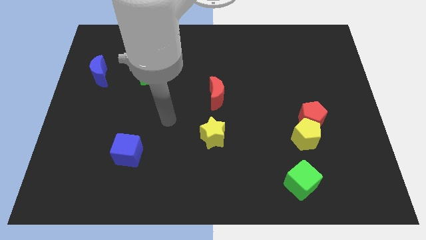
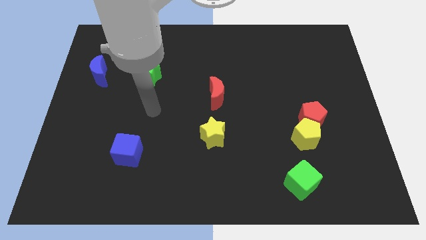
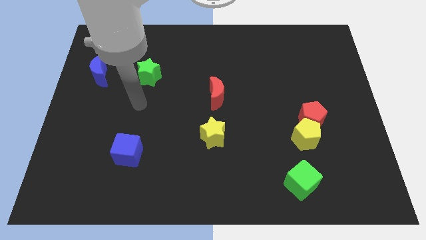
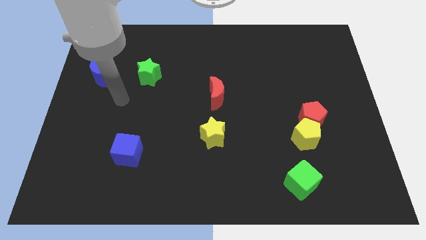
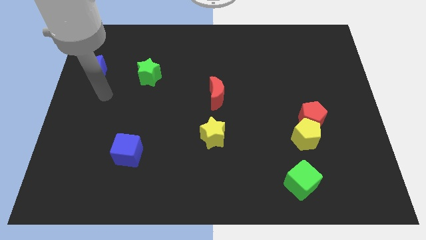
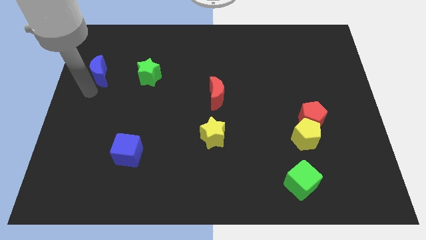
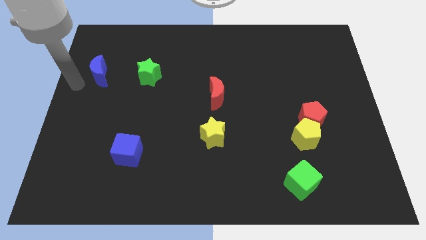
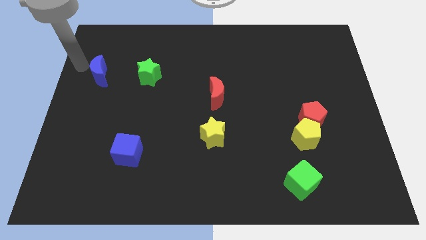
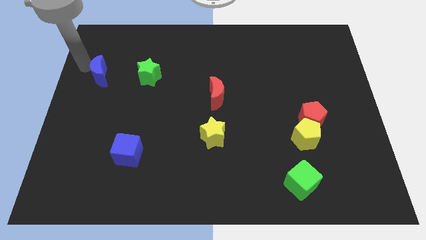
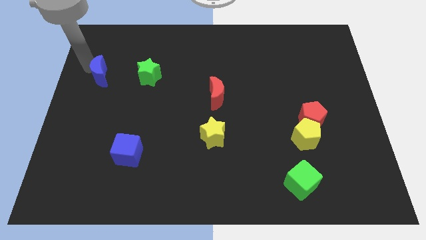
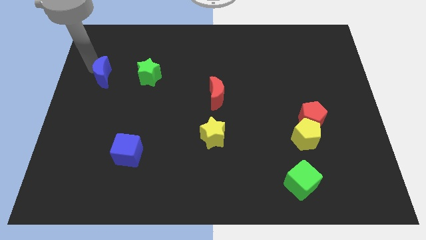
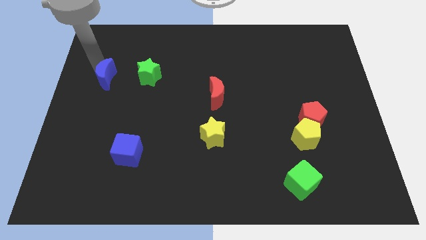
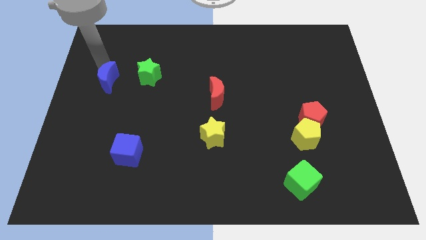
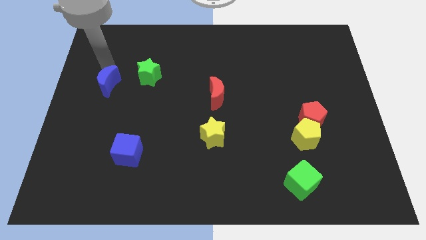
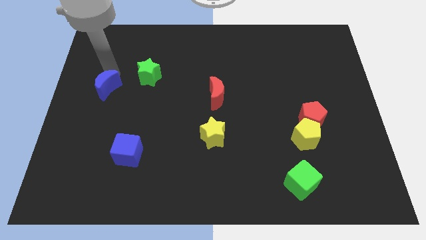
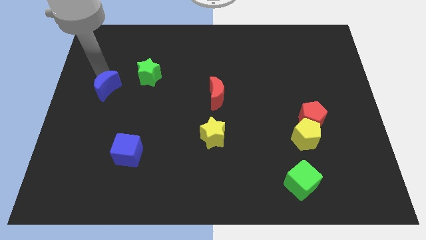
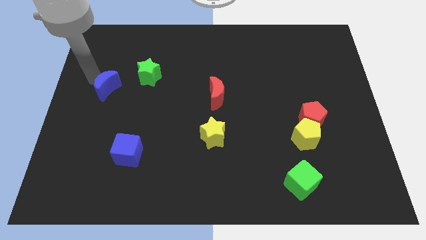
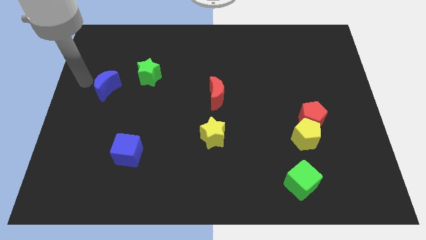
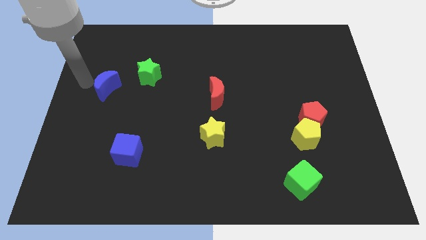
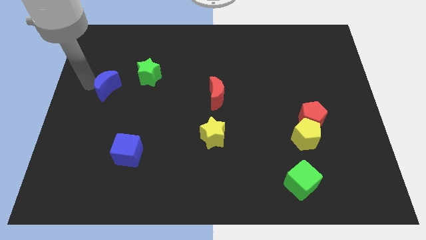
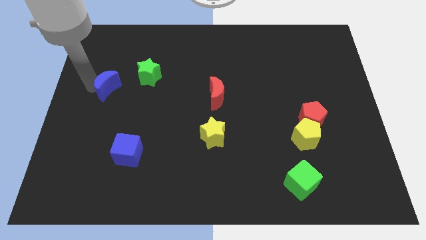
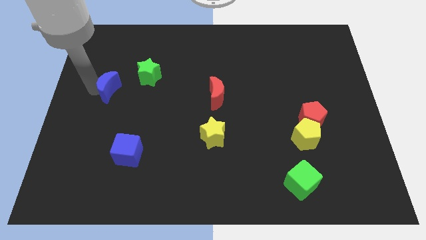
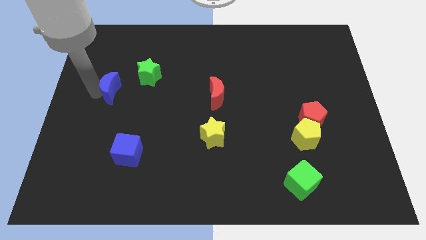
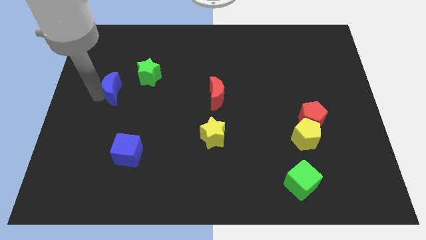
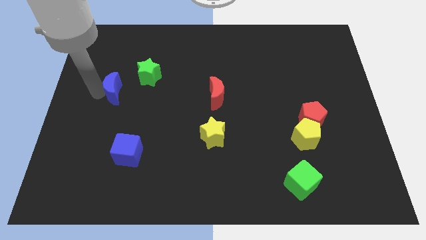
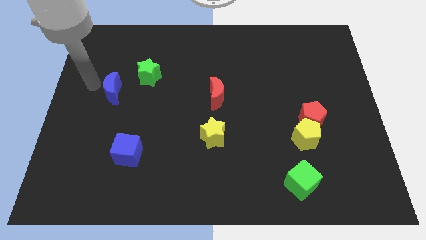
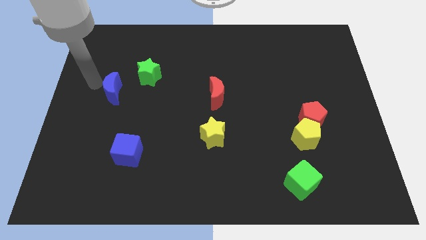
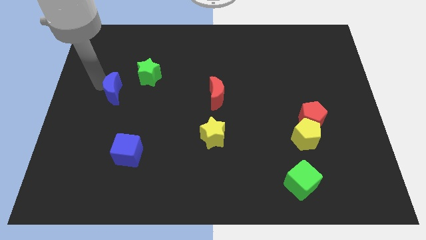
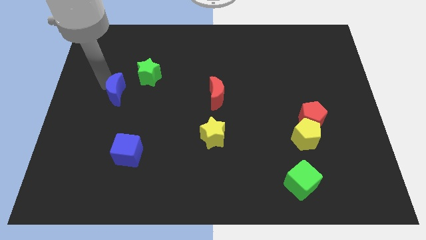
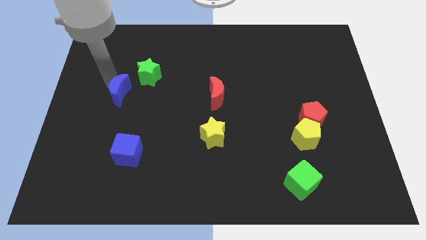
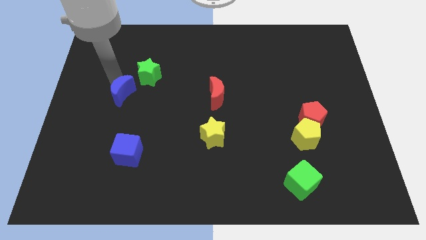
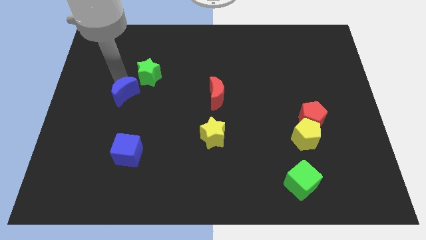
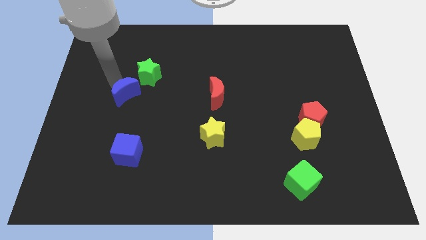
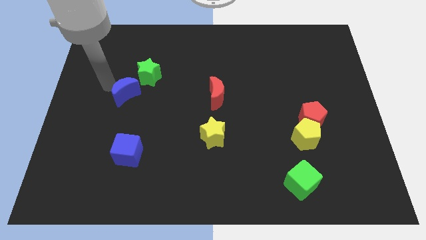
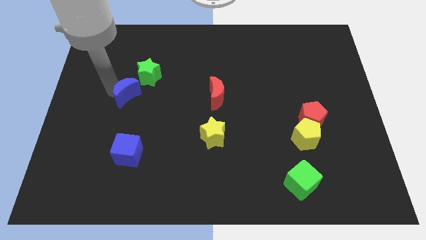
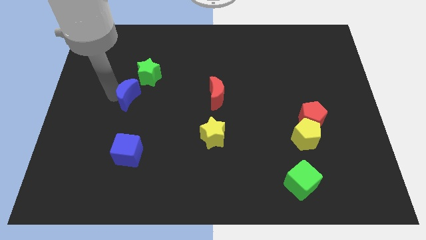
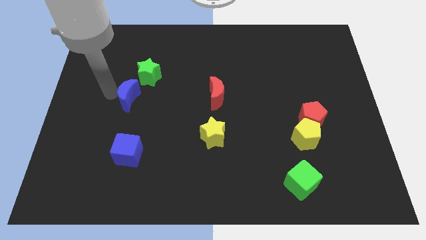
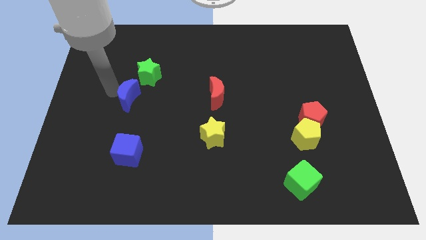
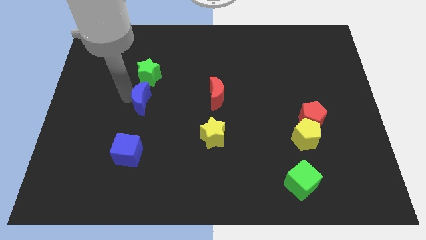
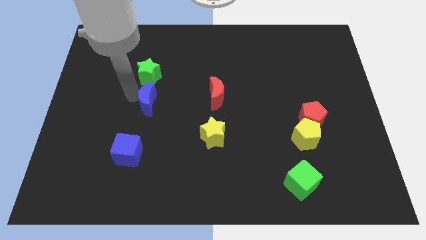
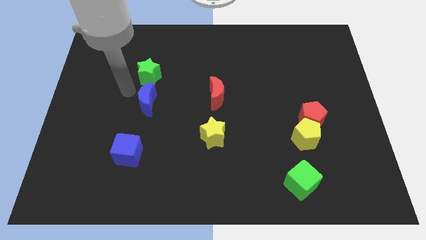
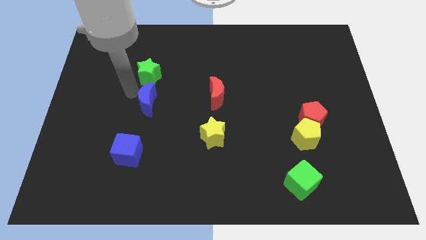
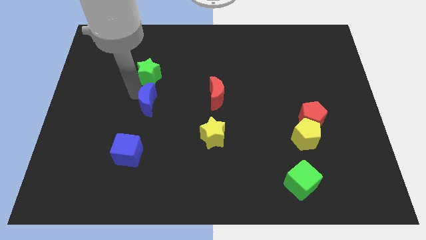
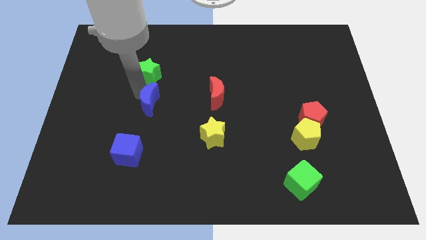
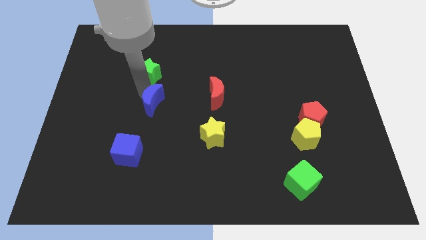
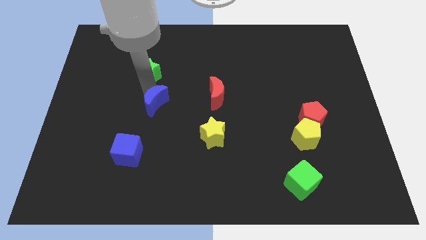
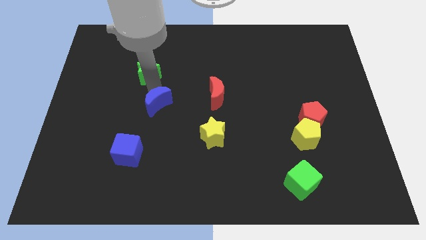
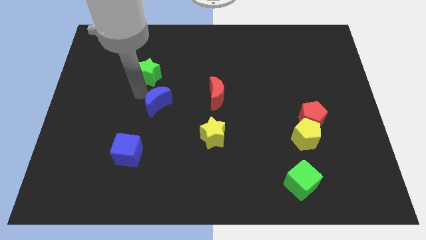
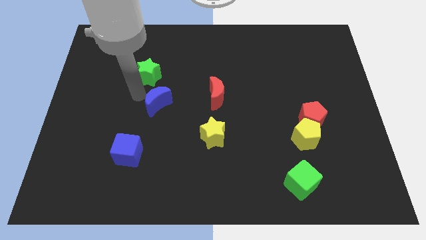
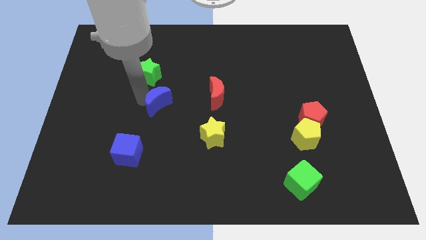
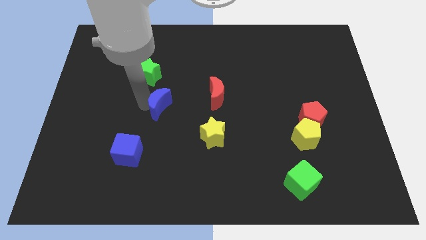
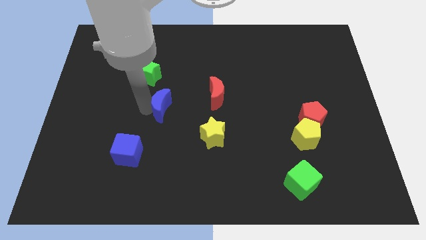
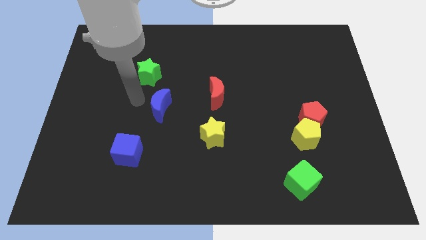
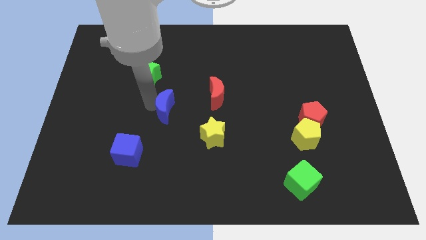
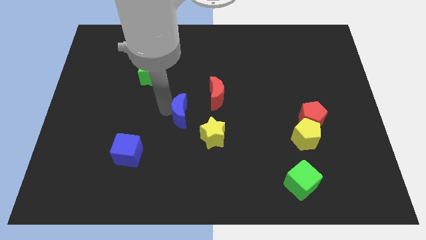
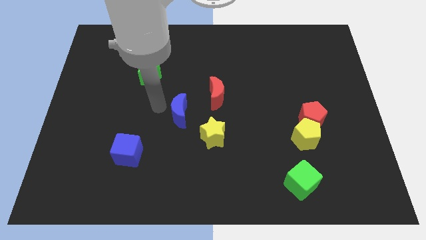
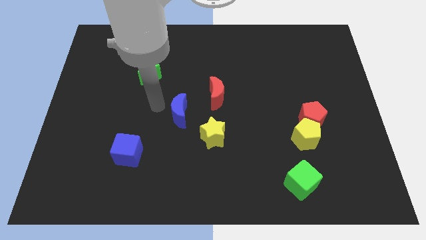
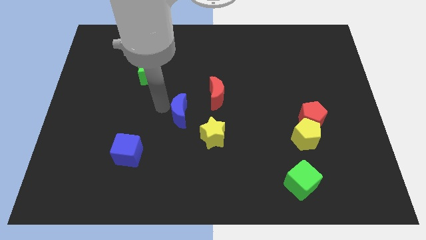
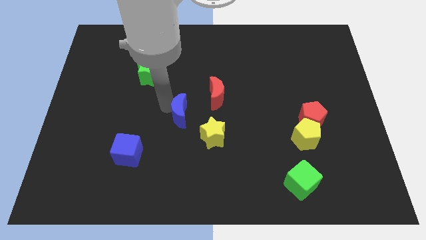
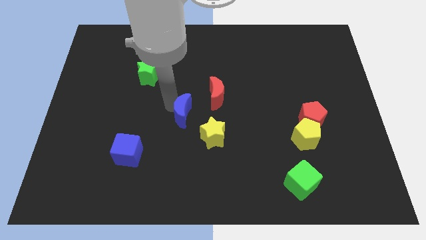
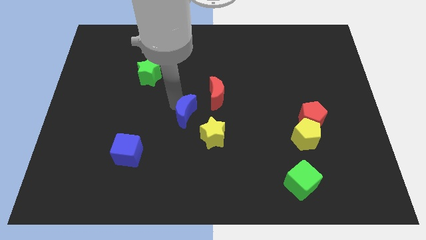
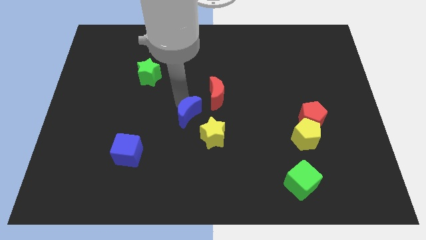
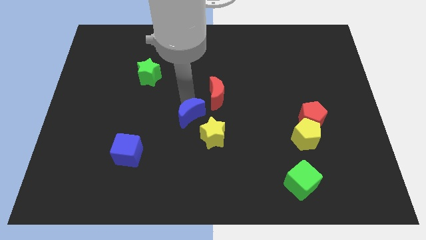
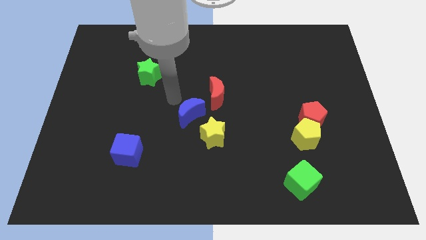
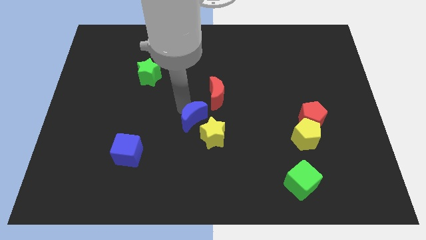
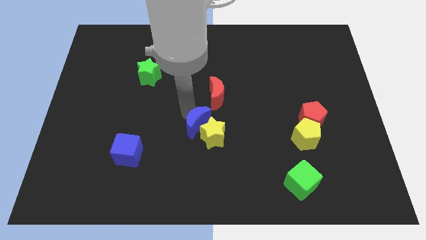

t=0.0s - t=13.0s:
push the blue moon next to the yellow star

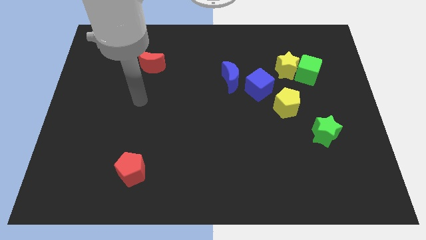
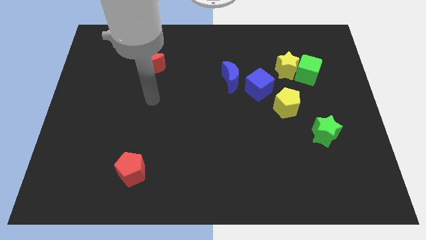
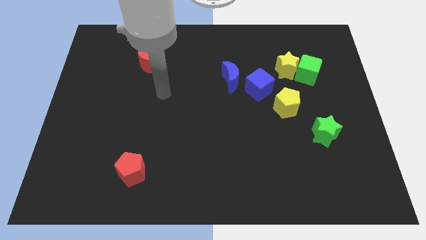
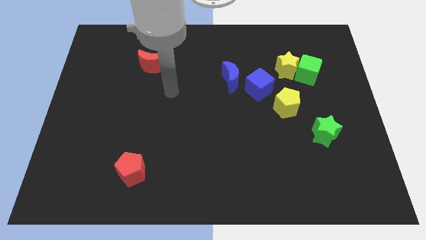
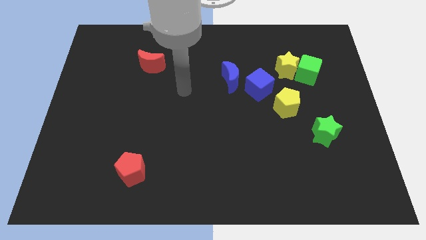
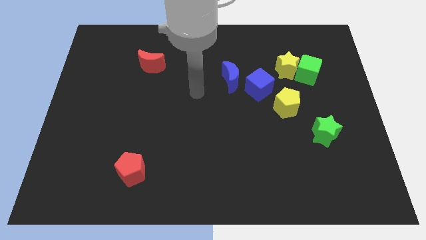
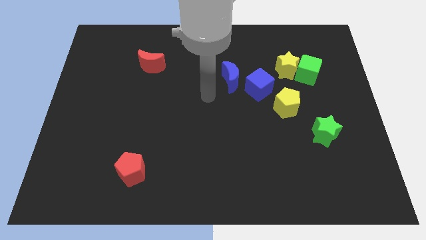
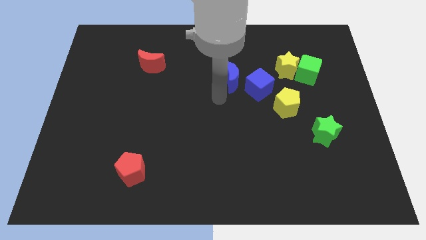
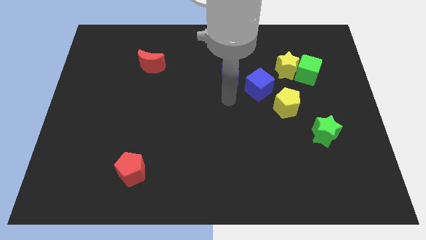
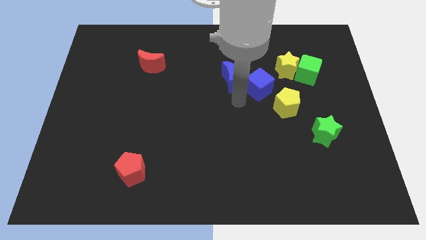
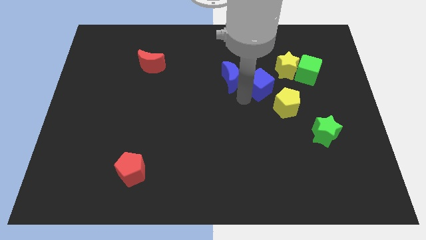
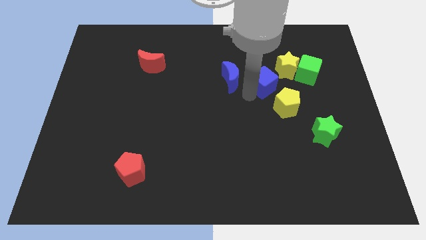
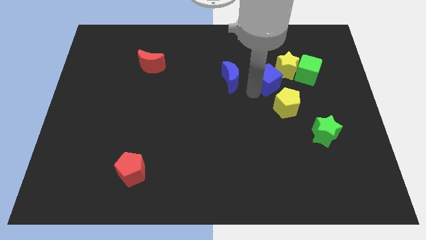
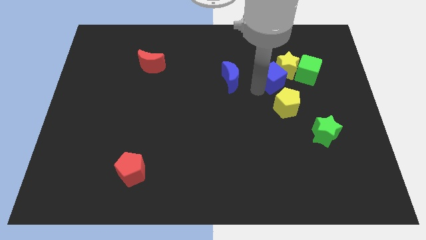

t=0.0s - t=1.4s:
push the blue cube to the yellow star
